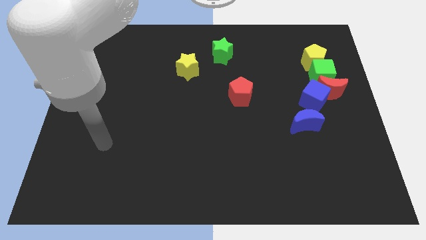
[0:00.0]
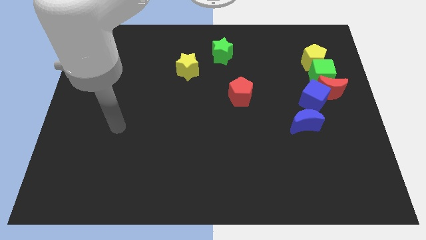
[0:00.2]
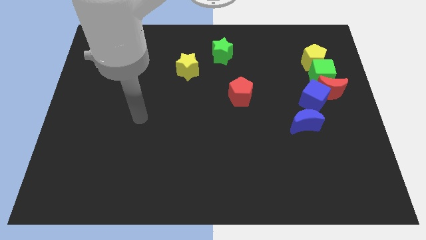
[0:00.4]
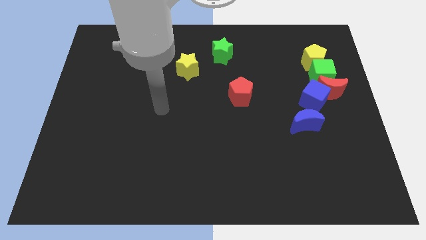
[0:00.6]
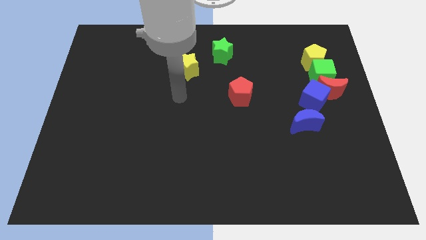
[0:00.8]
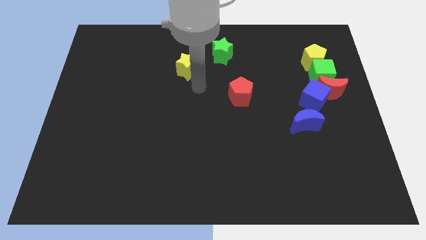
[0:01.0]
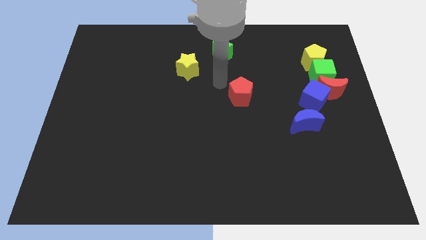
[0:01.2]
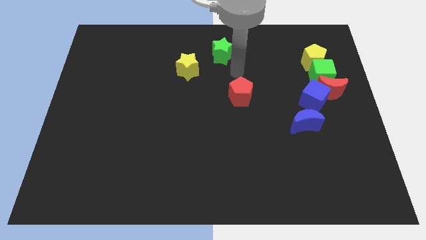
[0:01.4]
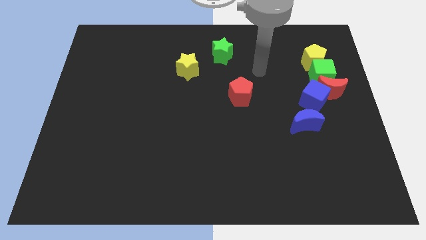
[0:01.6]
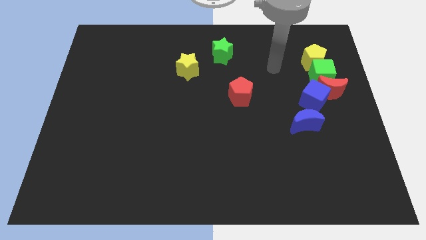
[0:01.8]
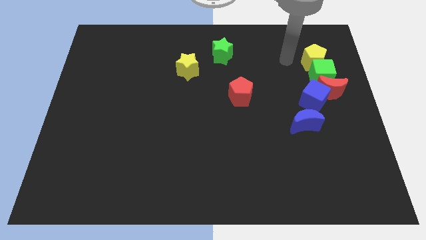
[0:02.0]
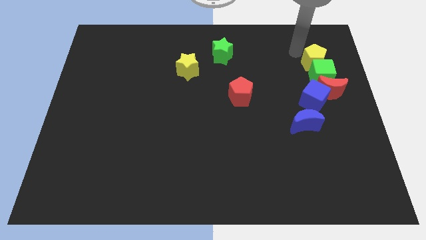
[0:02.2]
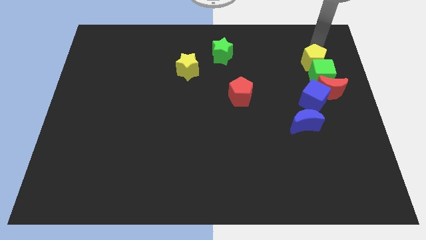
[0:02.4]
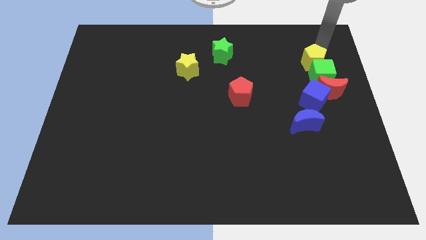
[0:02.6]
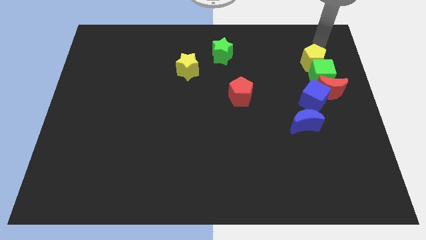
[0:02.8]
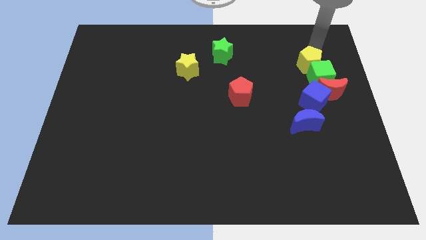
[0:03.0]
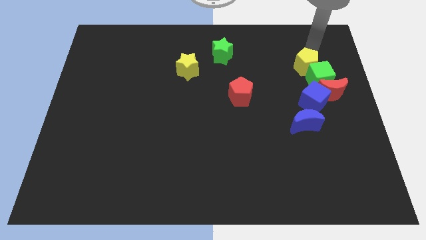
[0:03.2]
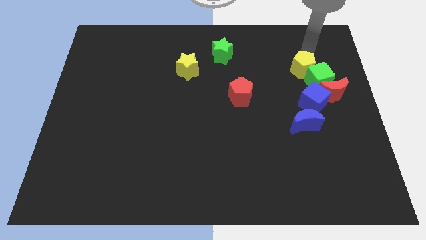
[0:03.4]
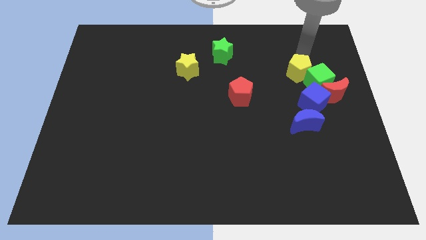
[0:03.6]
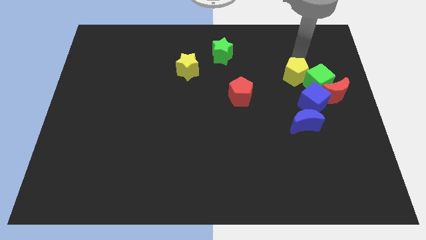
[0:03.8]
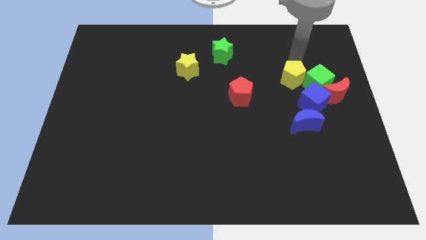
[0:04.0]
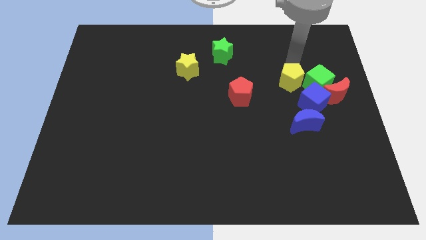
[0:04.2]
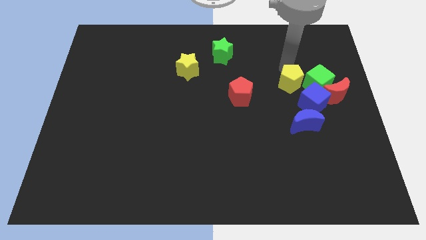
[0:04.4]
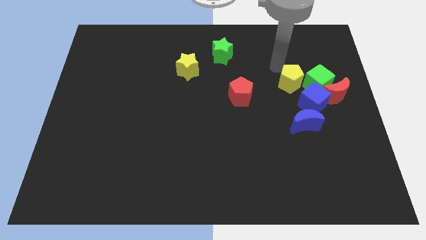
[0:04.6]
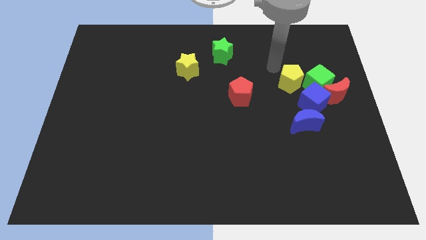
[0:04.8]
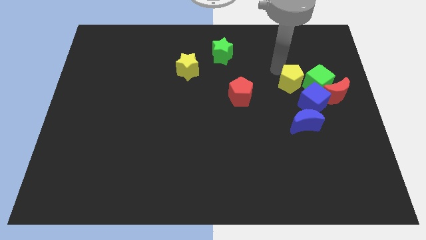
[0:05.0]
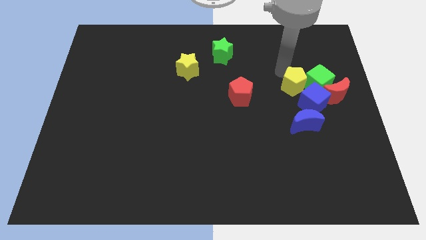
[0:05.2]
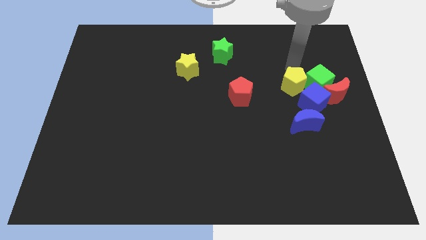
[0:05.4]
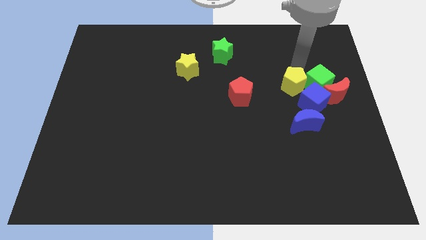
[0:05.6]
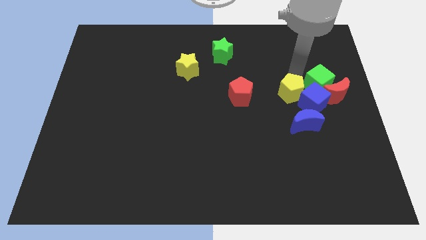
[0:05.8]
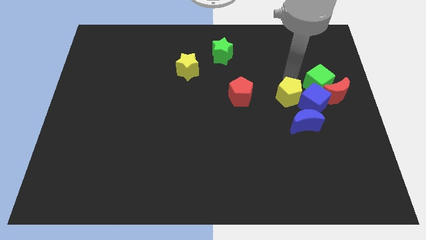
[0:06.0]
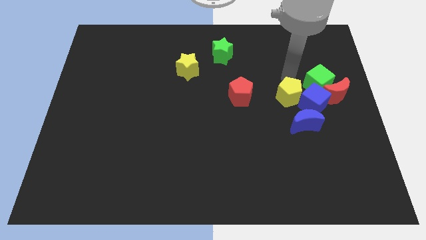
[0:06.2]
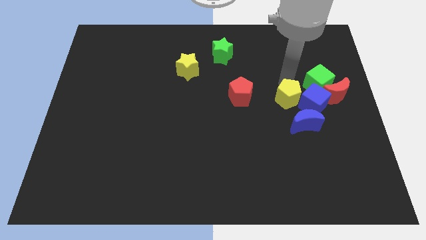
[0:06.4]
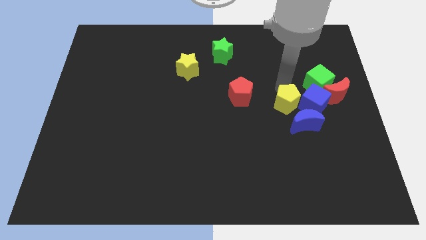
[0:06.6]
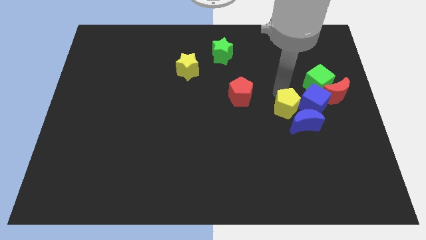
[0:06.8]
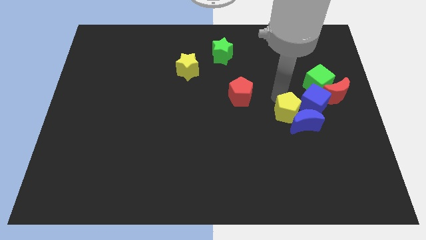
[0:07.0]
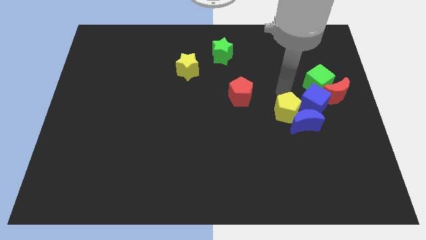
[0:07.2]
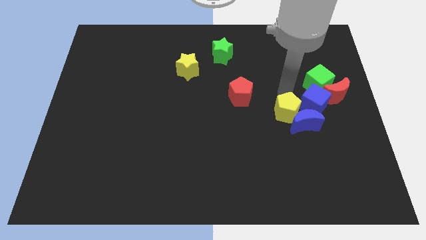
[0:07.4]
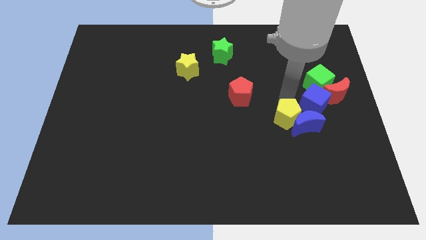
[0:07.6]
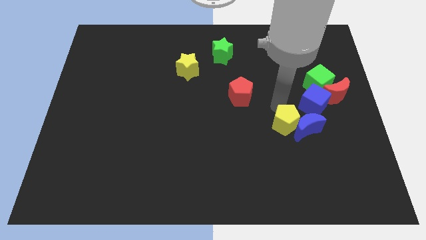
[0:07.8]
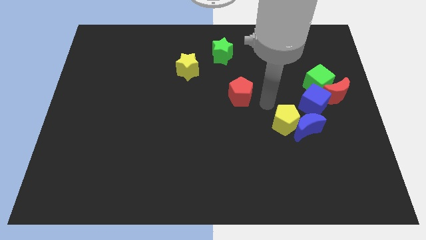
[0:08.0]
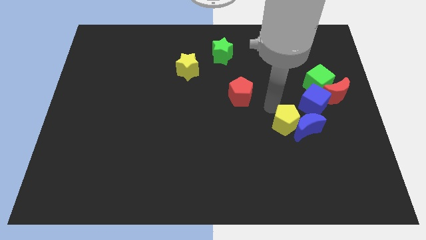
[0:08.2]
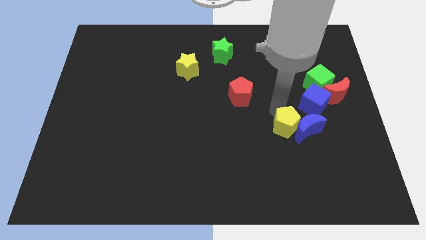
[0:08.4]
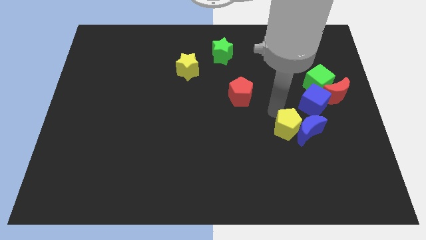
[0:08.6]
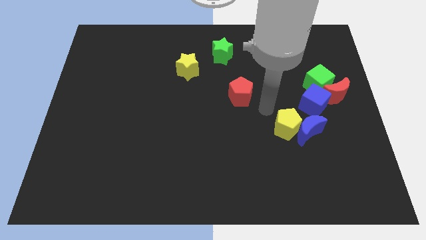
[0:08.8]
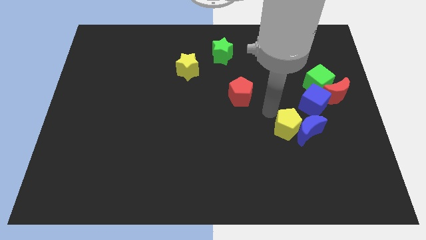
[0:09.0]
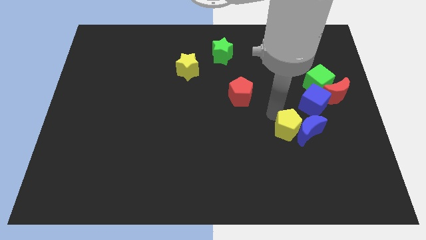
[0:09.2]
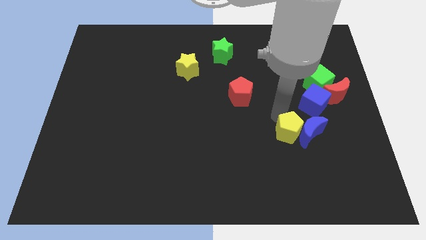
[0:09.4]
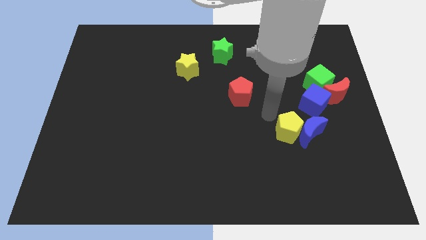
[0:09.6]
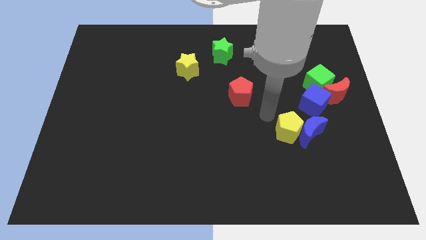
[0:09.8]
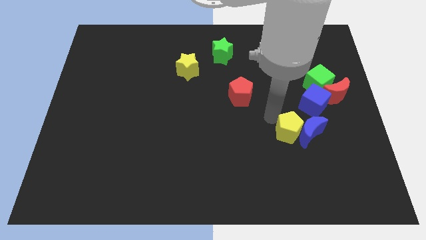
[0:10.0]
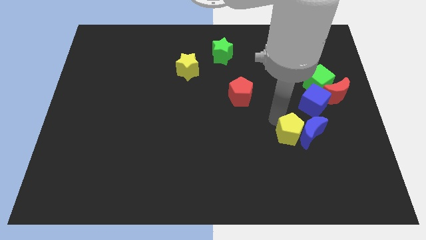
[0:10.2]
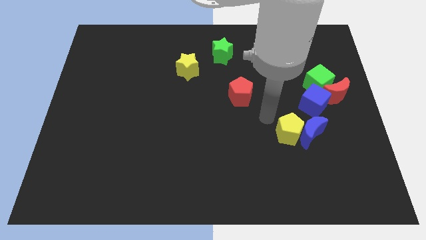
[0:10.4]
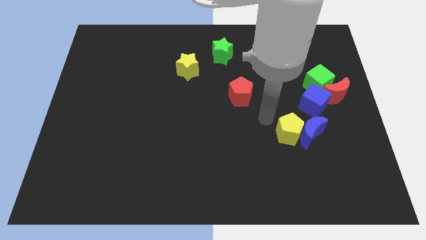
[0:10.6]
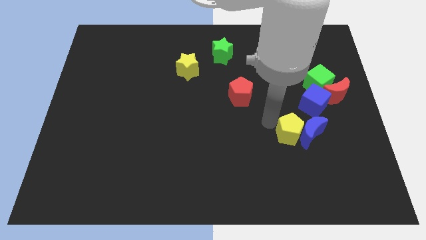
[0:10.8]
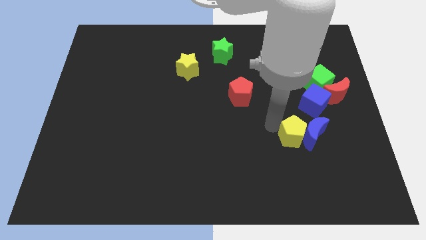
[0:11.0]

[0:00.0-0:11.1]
slide the yellow pentagon downwards

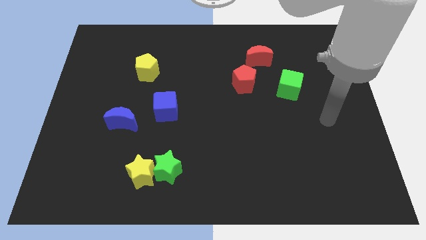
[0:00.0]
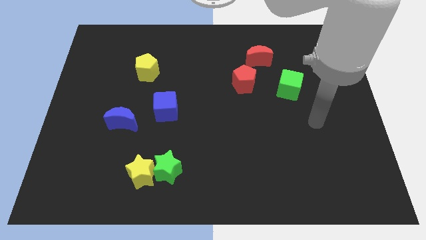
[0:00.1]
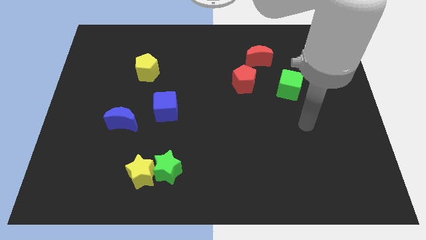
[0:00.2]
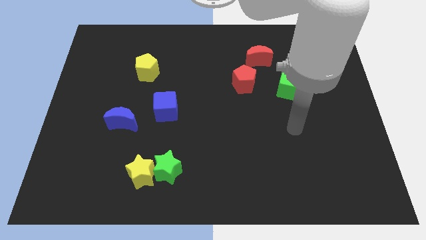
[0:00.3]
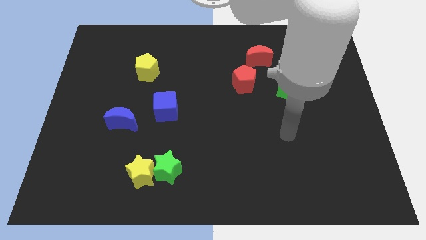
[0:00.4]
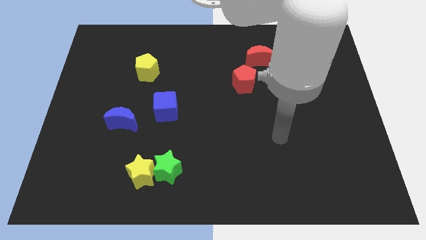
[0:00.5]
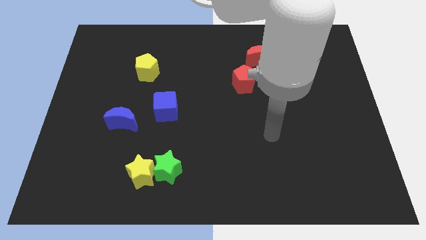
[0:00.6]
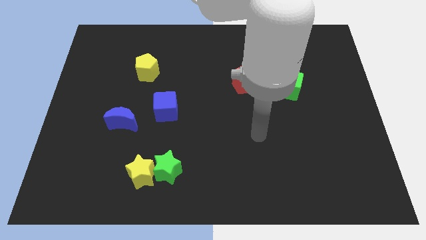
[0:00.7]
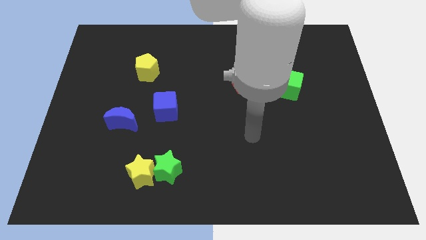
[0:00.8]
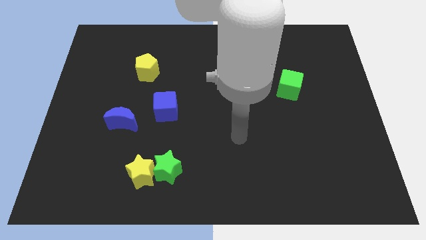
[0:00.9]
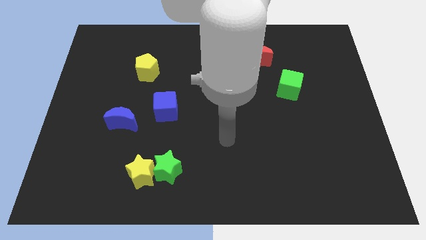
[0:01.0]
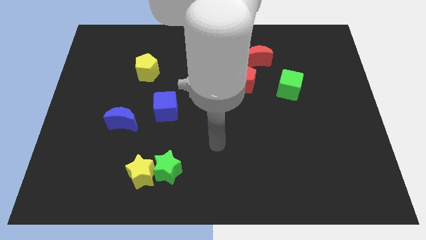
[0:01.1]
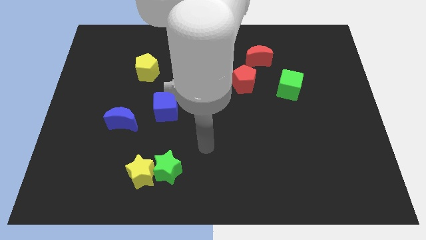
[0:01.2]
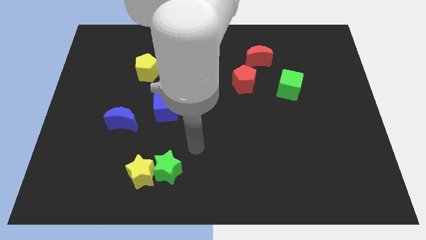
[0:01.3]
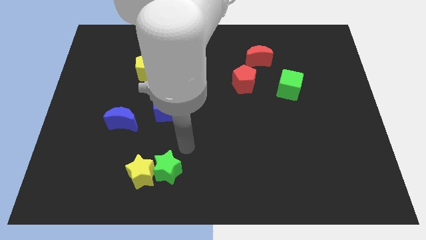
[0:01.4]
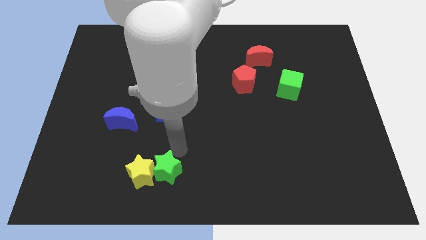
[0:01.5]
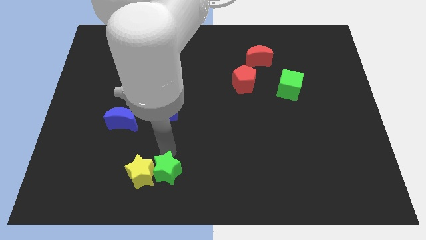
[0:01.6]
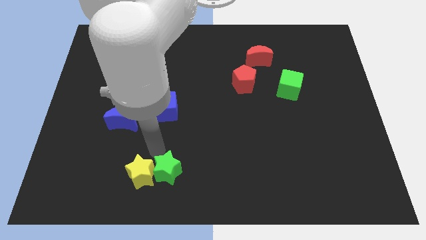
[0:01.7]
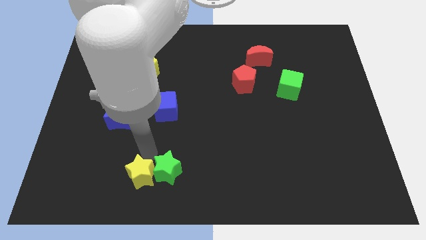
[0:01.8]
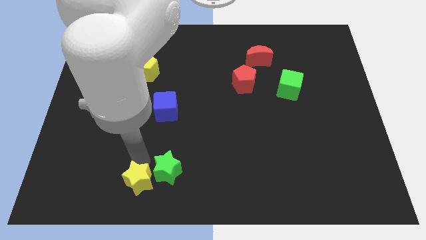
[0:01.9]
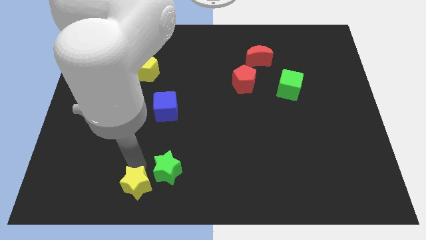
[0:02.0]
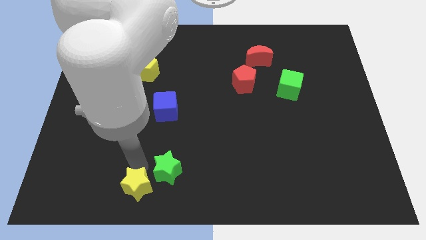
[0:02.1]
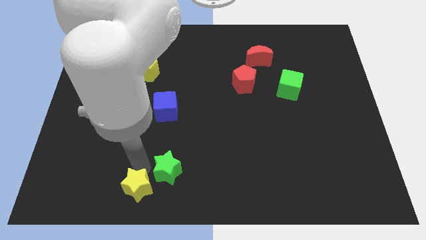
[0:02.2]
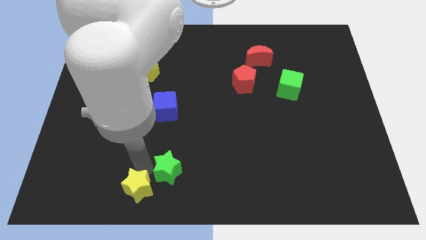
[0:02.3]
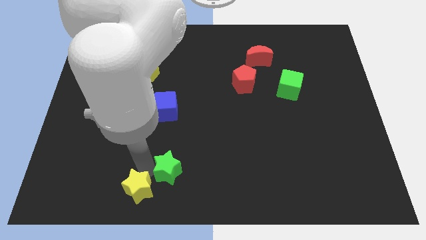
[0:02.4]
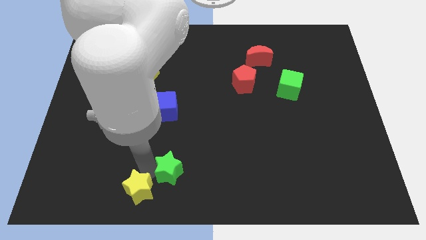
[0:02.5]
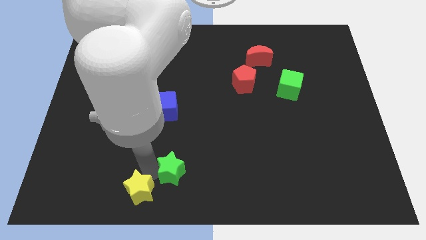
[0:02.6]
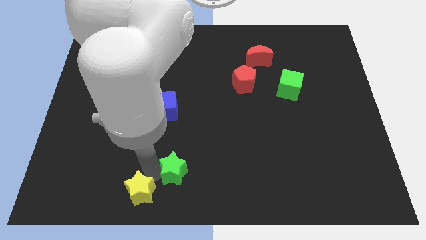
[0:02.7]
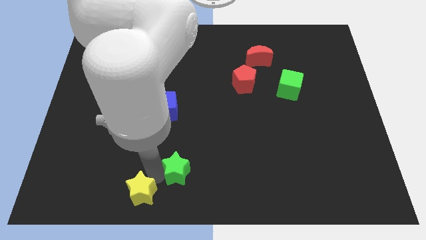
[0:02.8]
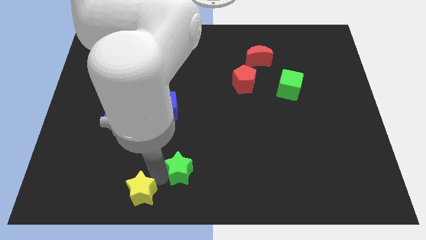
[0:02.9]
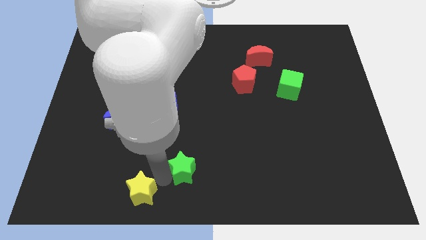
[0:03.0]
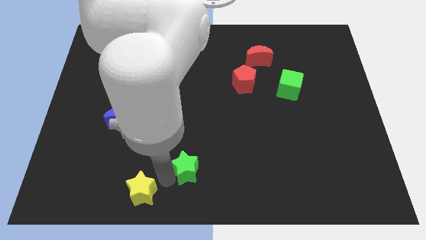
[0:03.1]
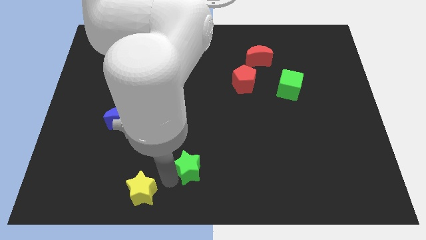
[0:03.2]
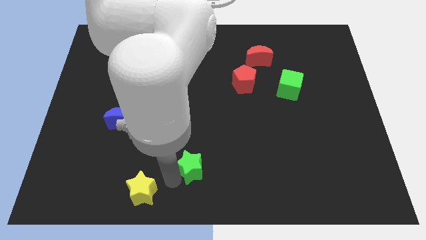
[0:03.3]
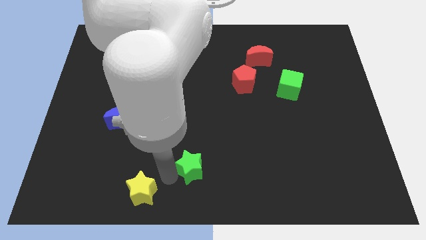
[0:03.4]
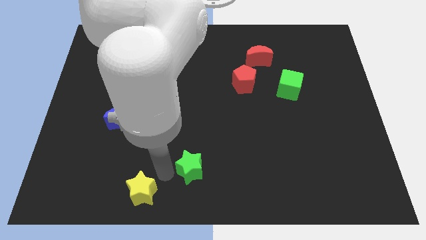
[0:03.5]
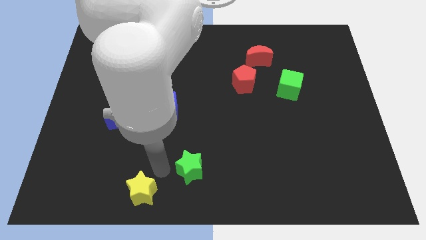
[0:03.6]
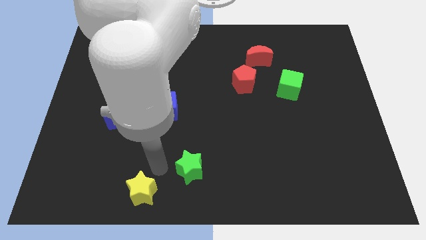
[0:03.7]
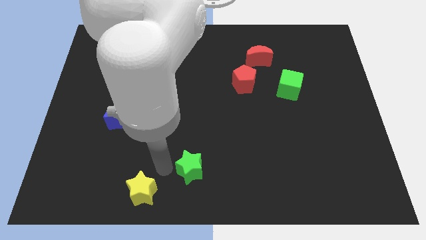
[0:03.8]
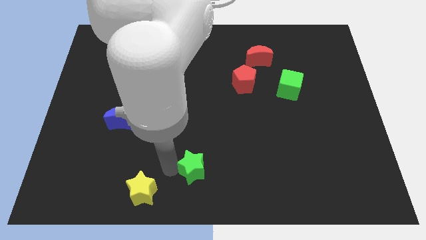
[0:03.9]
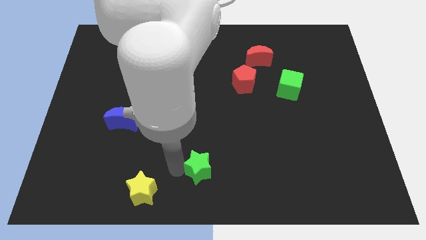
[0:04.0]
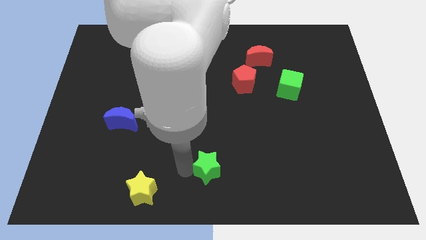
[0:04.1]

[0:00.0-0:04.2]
move the green star to the right somewhat
